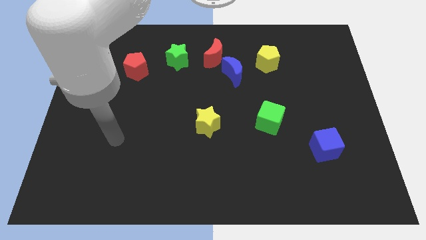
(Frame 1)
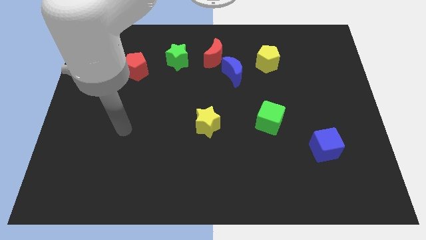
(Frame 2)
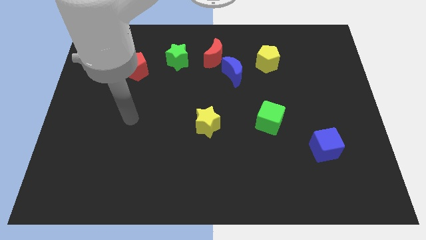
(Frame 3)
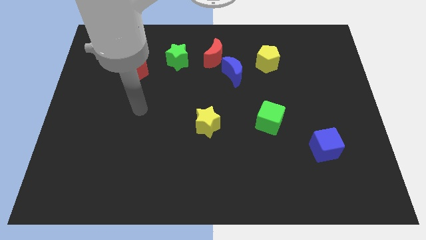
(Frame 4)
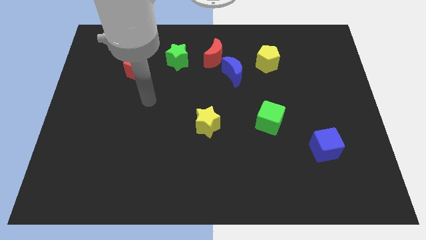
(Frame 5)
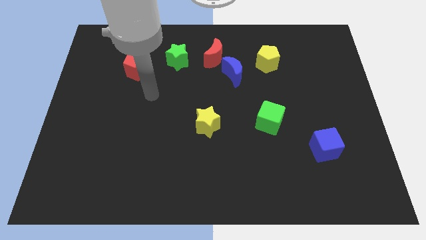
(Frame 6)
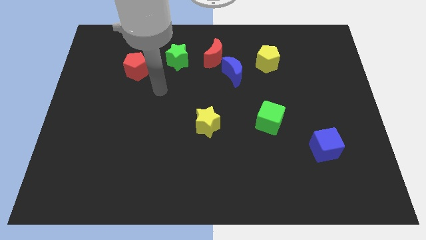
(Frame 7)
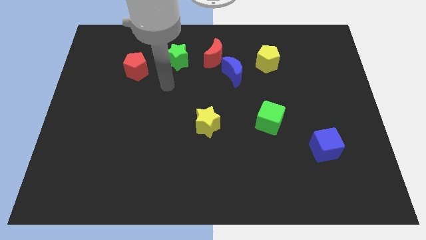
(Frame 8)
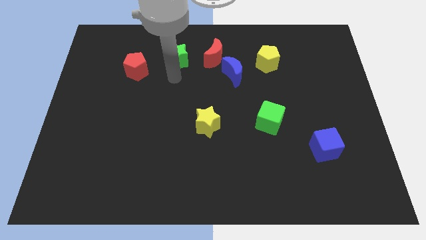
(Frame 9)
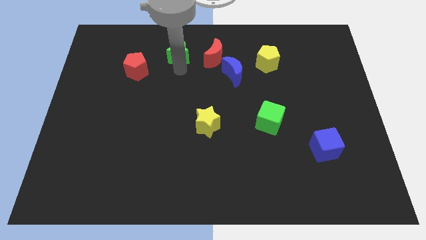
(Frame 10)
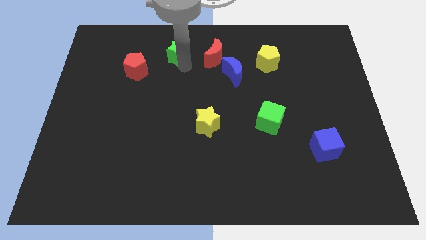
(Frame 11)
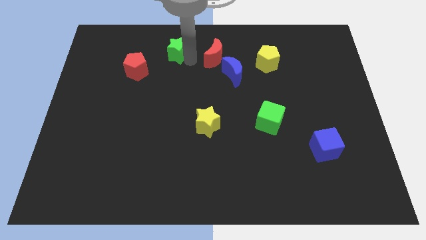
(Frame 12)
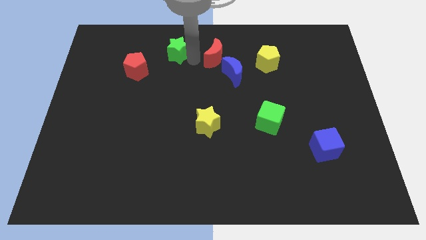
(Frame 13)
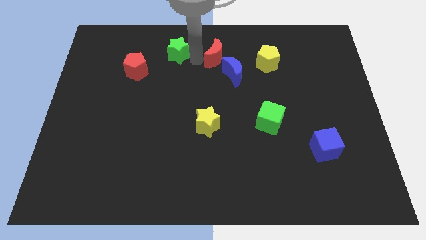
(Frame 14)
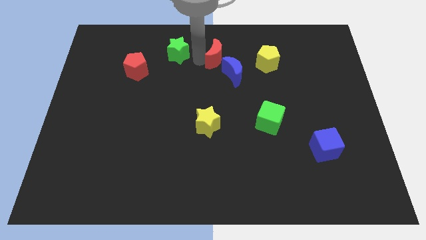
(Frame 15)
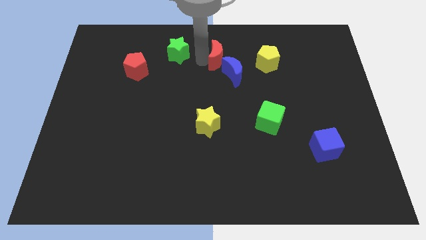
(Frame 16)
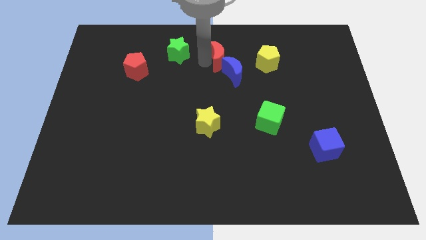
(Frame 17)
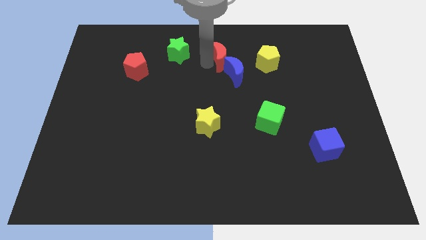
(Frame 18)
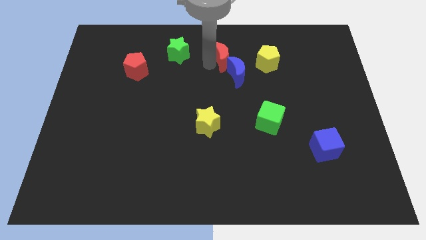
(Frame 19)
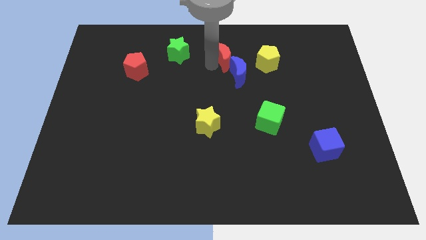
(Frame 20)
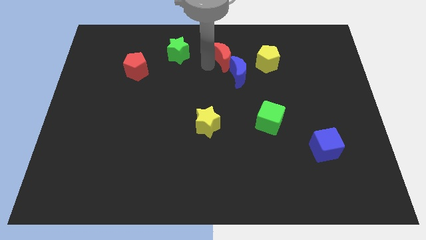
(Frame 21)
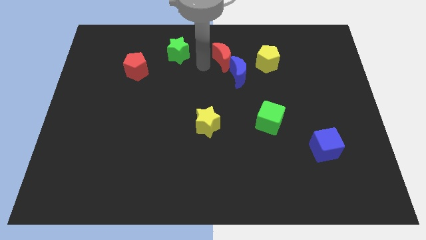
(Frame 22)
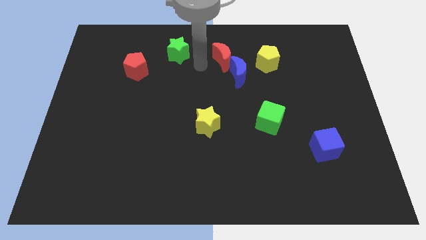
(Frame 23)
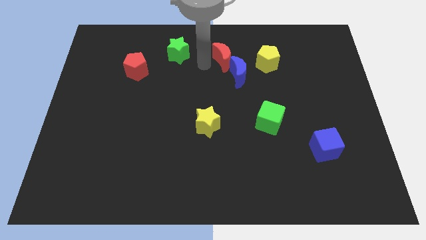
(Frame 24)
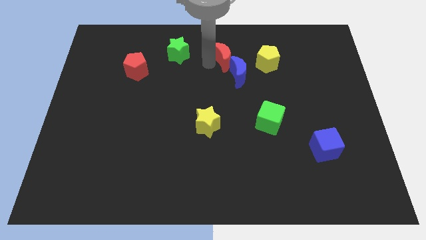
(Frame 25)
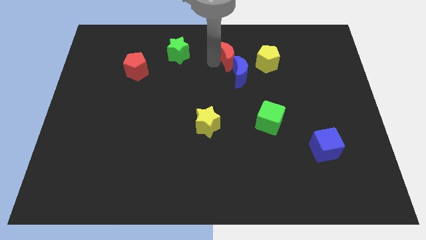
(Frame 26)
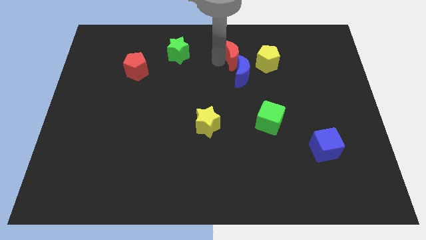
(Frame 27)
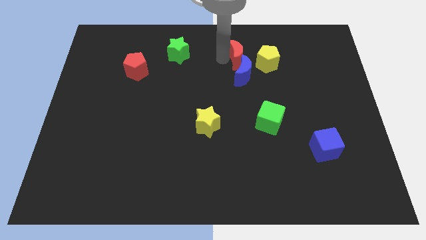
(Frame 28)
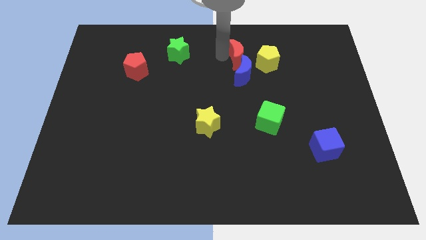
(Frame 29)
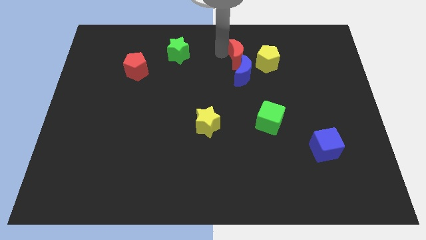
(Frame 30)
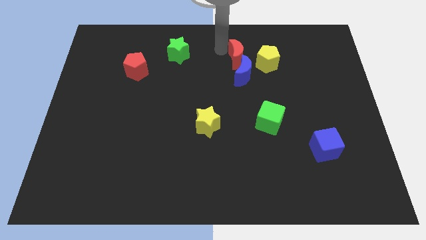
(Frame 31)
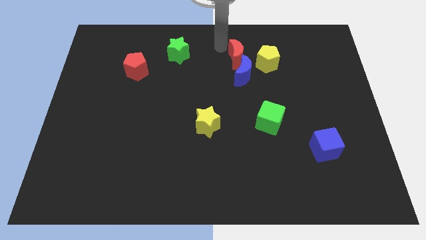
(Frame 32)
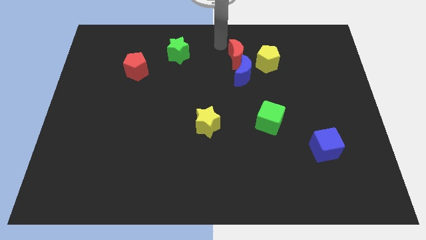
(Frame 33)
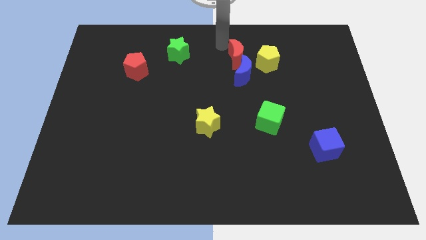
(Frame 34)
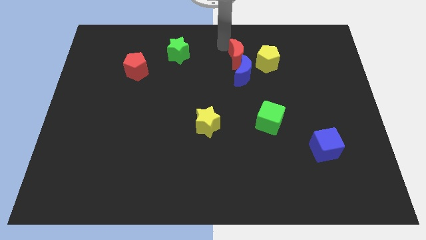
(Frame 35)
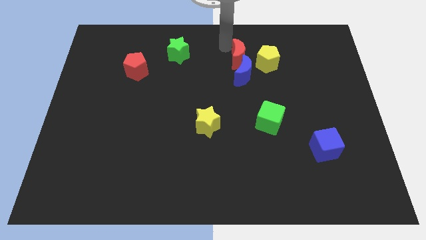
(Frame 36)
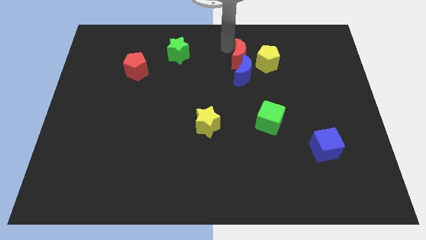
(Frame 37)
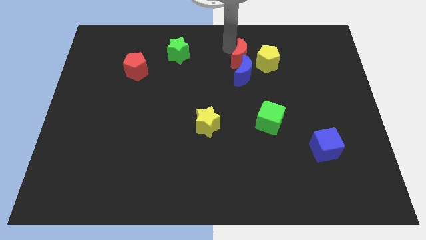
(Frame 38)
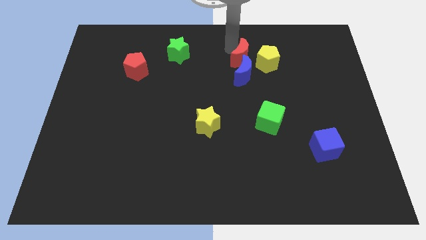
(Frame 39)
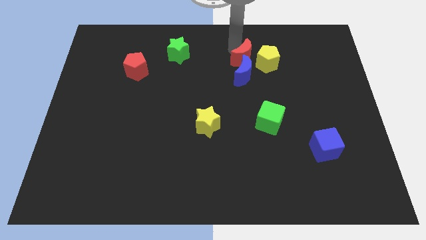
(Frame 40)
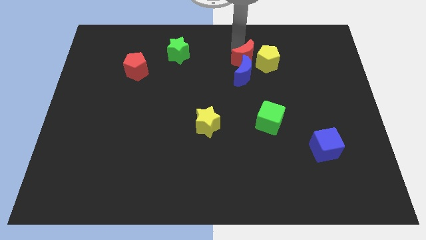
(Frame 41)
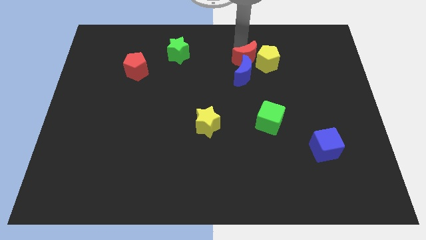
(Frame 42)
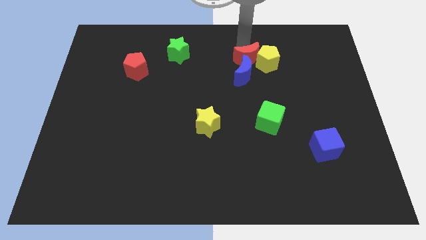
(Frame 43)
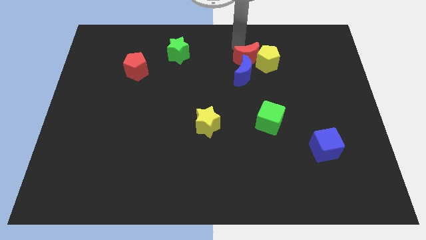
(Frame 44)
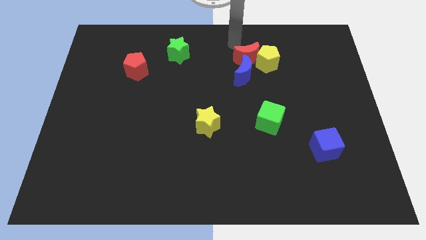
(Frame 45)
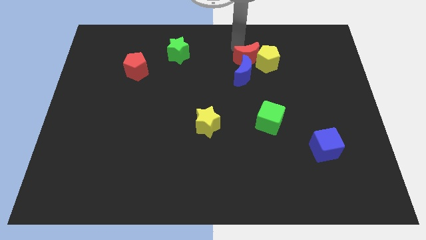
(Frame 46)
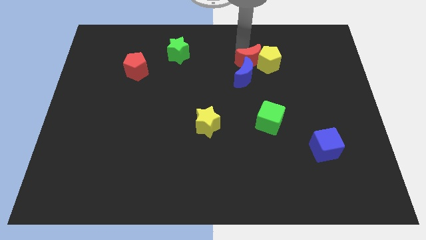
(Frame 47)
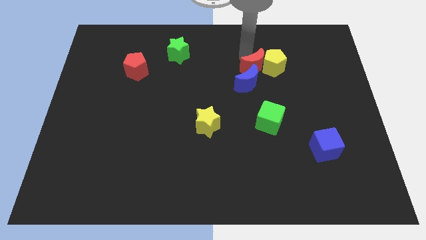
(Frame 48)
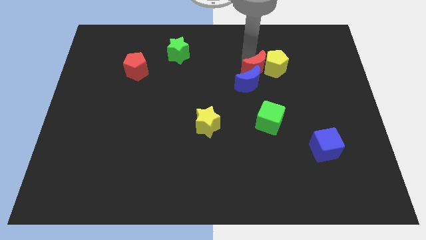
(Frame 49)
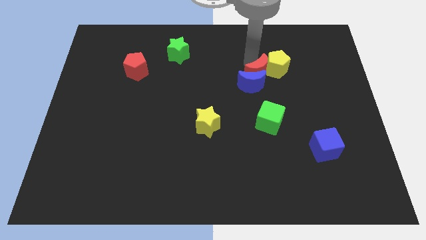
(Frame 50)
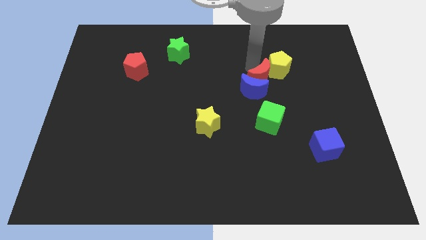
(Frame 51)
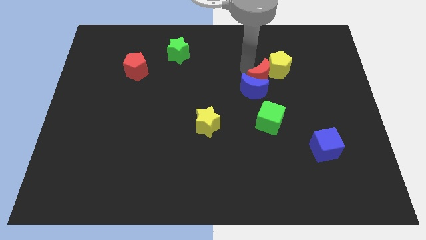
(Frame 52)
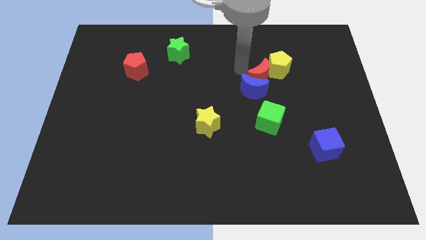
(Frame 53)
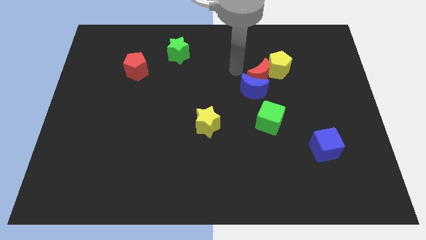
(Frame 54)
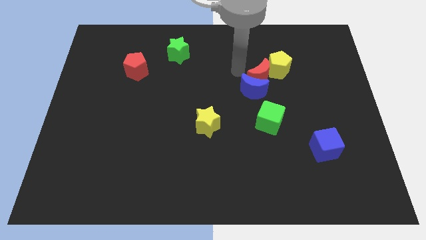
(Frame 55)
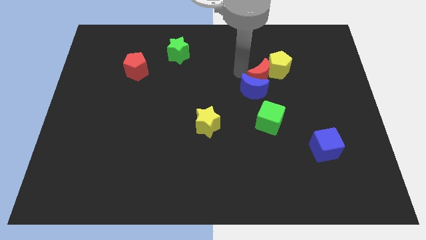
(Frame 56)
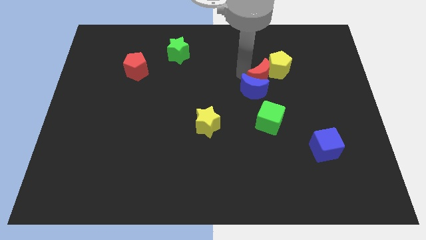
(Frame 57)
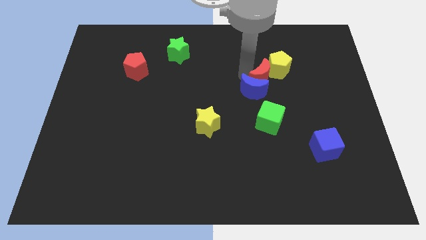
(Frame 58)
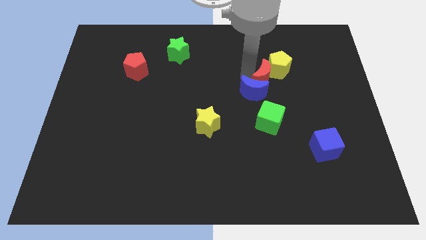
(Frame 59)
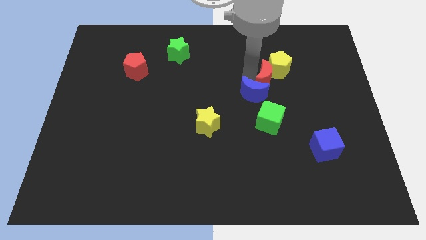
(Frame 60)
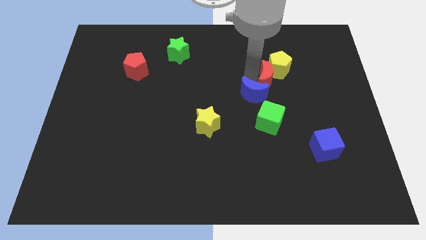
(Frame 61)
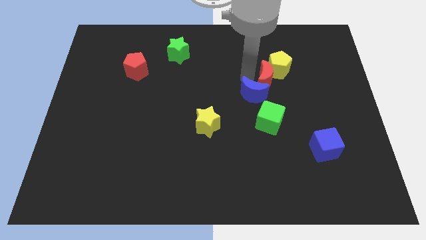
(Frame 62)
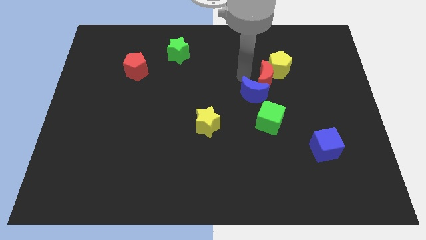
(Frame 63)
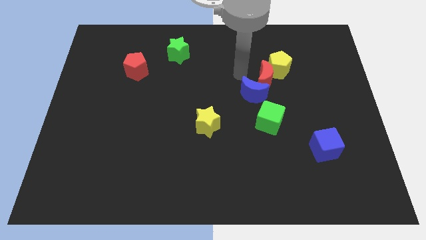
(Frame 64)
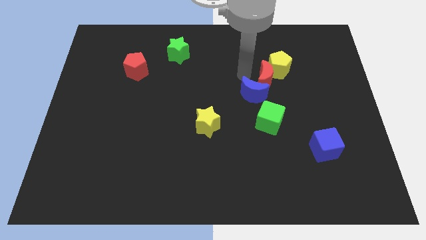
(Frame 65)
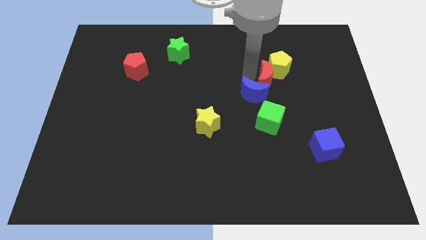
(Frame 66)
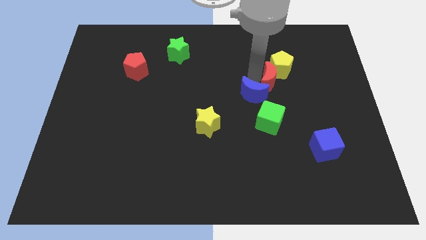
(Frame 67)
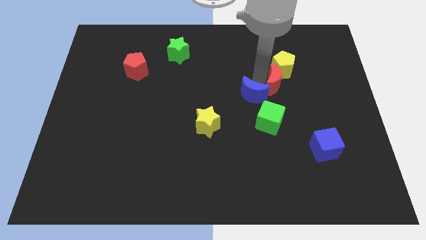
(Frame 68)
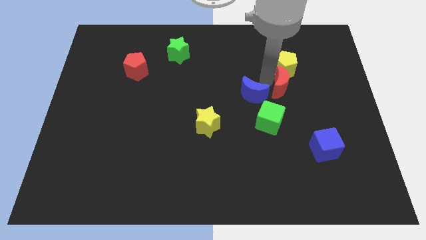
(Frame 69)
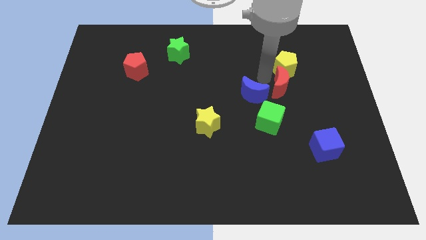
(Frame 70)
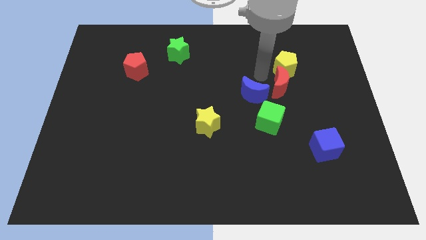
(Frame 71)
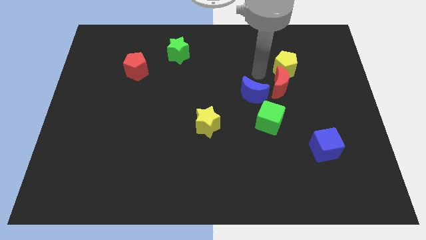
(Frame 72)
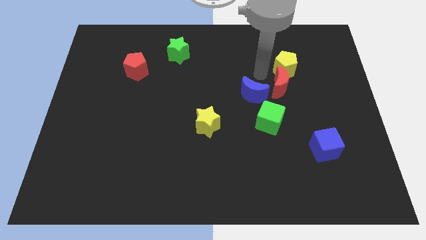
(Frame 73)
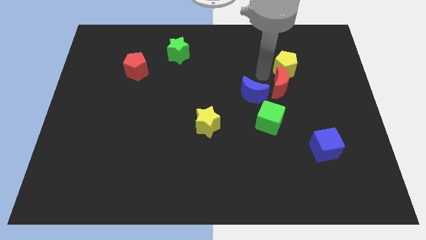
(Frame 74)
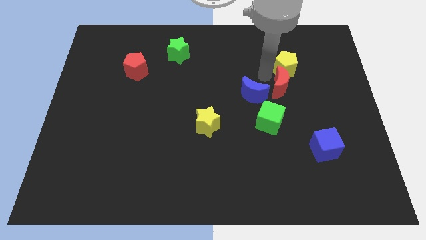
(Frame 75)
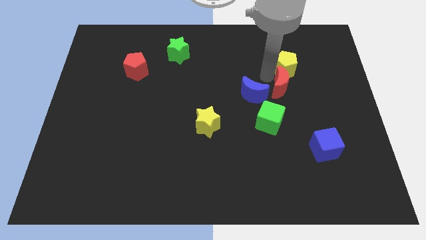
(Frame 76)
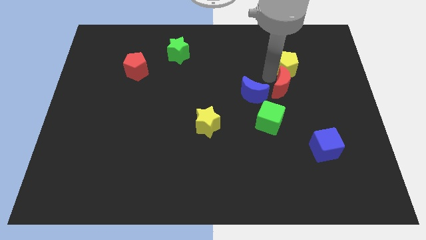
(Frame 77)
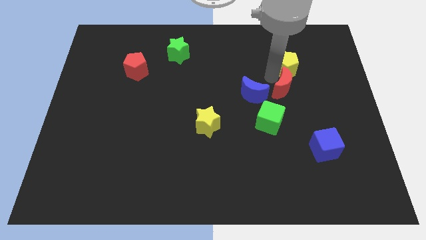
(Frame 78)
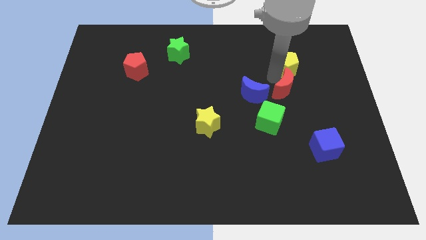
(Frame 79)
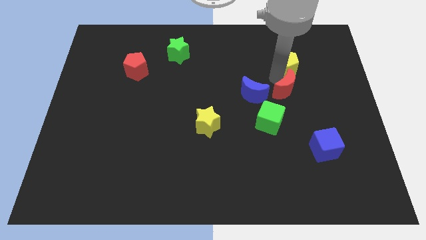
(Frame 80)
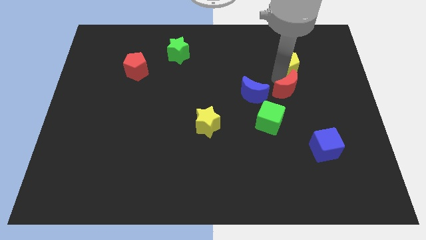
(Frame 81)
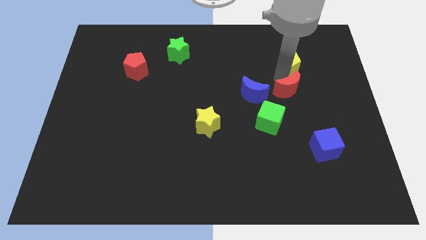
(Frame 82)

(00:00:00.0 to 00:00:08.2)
push the red moon down and to the right diagonally
